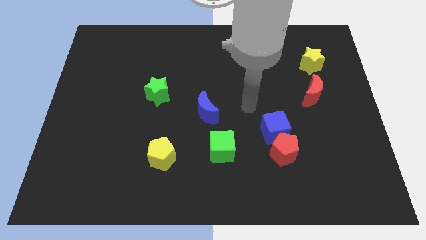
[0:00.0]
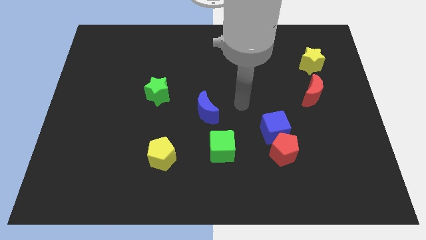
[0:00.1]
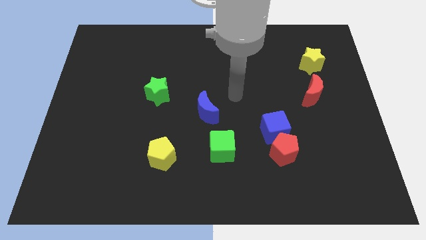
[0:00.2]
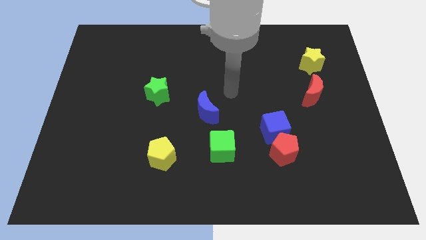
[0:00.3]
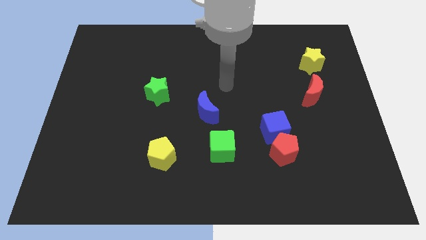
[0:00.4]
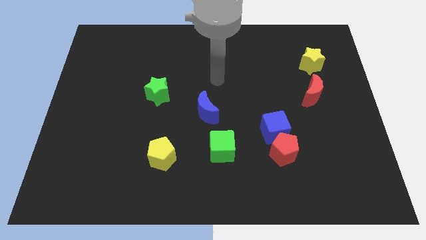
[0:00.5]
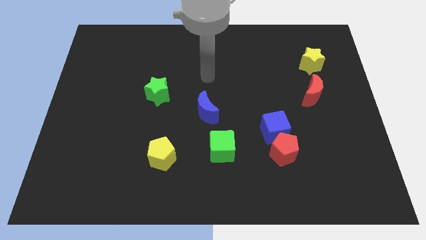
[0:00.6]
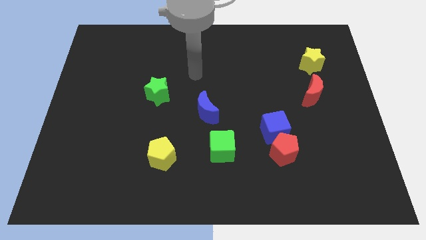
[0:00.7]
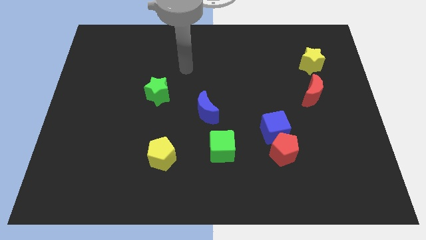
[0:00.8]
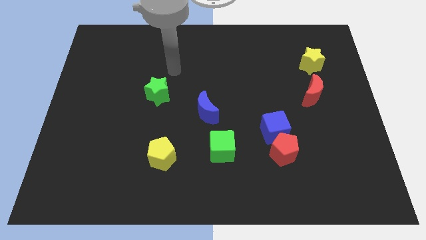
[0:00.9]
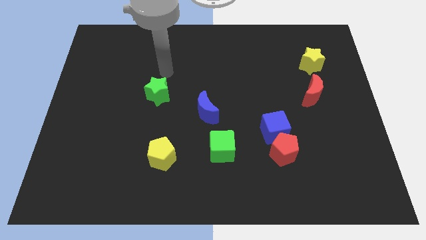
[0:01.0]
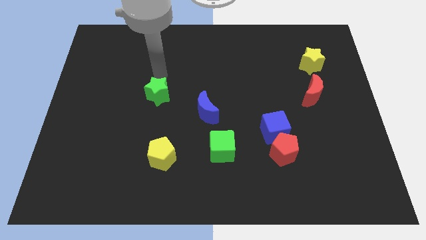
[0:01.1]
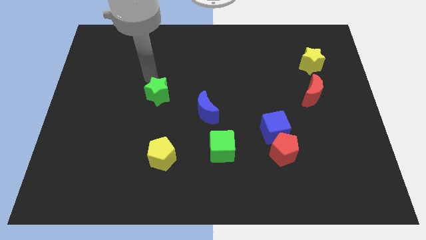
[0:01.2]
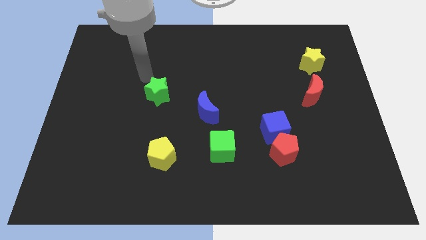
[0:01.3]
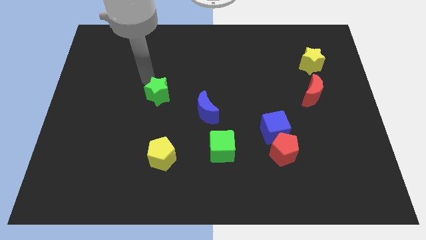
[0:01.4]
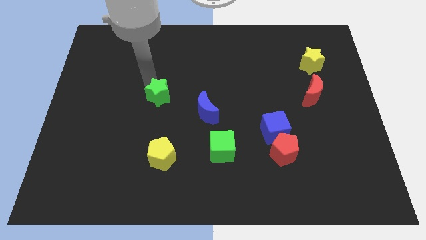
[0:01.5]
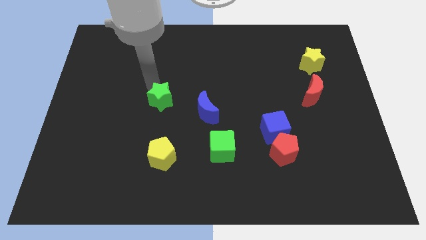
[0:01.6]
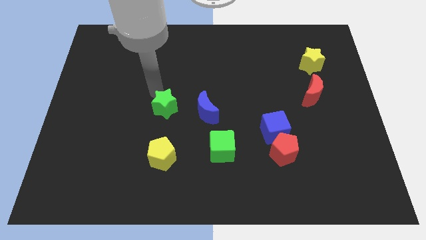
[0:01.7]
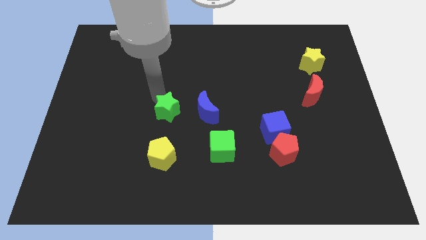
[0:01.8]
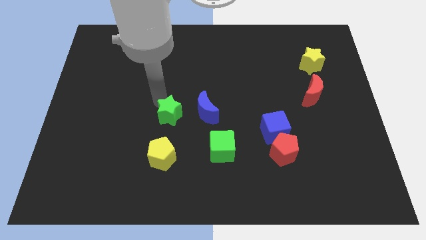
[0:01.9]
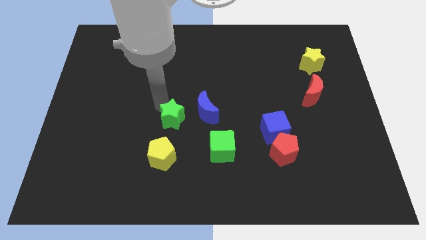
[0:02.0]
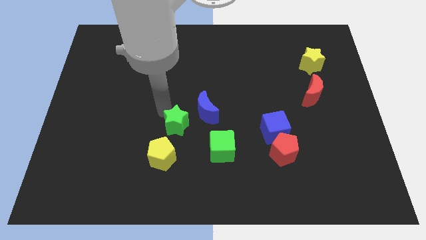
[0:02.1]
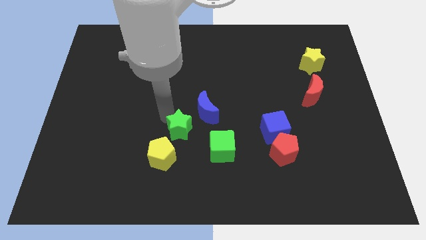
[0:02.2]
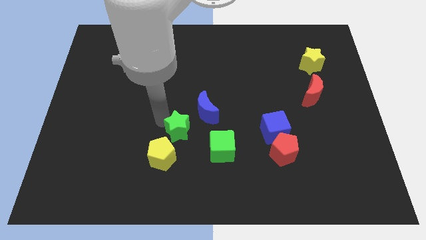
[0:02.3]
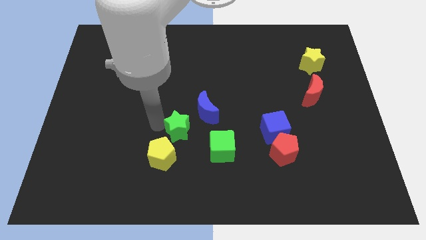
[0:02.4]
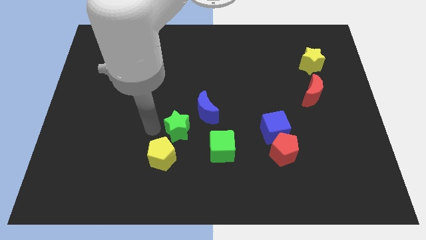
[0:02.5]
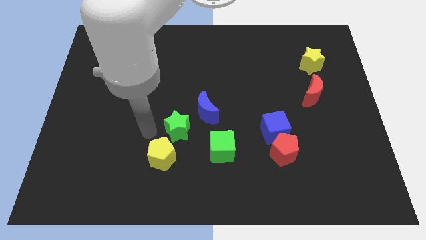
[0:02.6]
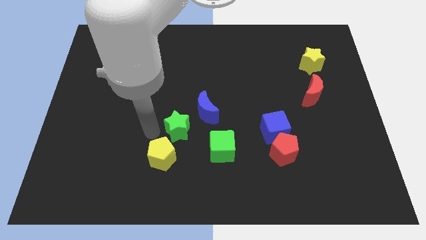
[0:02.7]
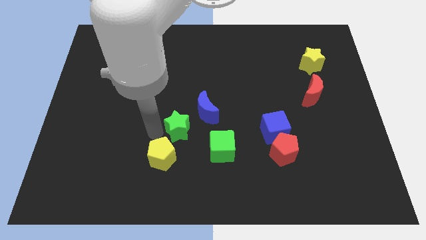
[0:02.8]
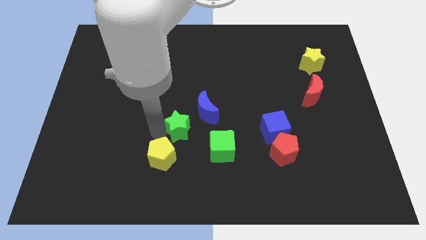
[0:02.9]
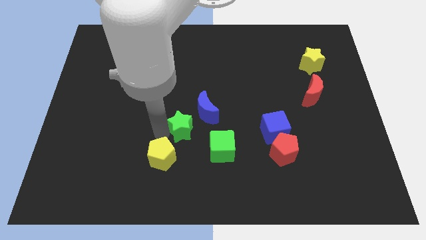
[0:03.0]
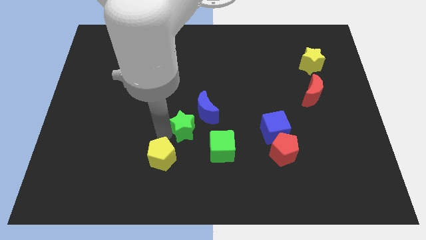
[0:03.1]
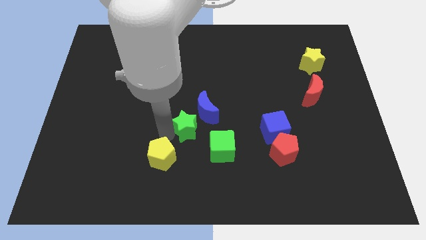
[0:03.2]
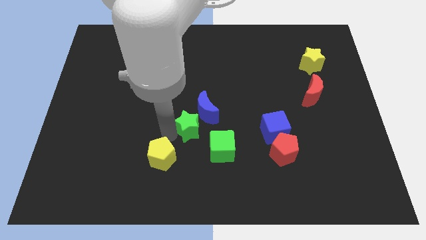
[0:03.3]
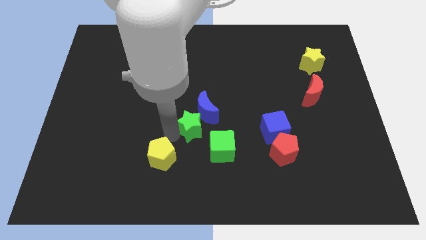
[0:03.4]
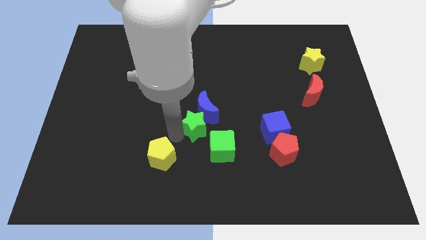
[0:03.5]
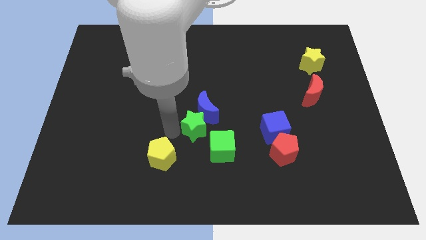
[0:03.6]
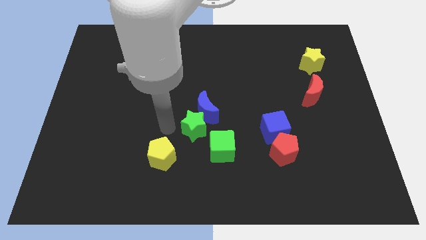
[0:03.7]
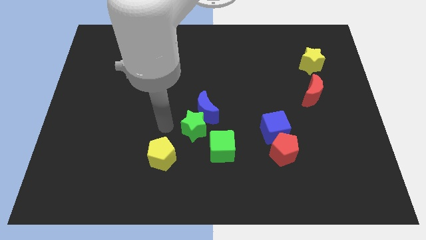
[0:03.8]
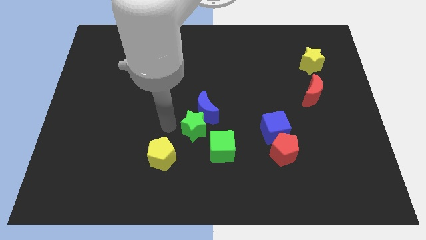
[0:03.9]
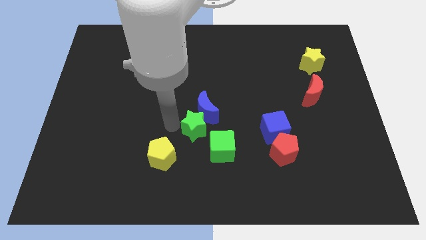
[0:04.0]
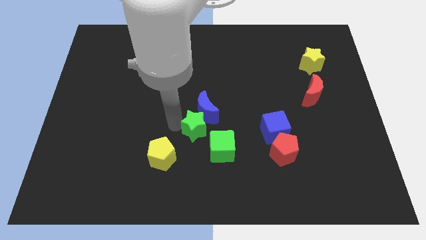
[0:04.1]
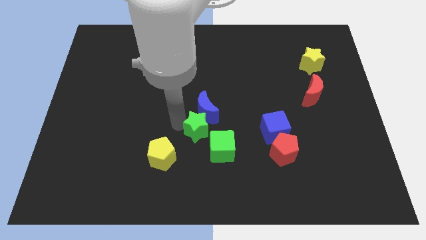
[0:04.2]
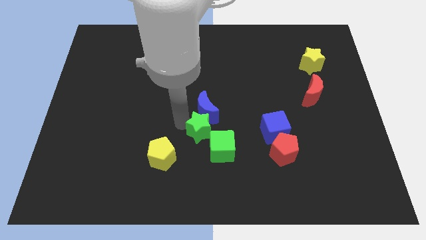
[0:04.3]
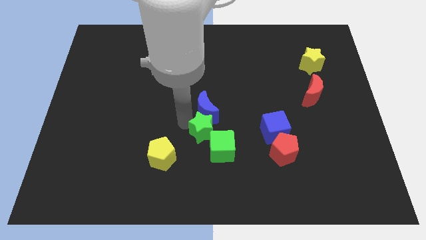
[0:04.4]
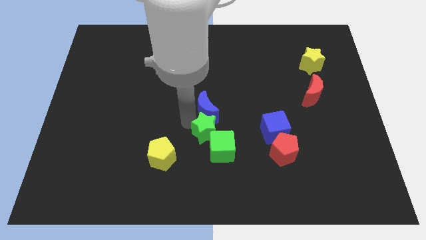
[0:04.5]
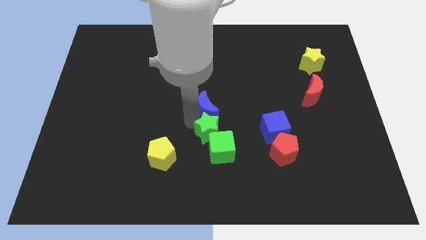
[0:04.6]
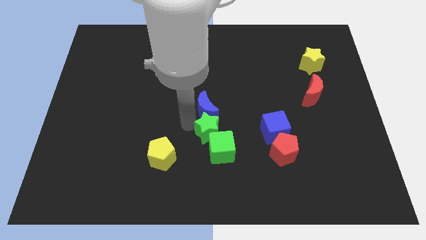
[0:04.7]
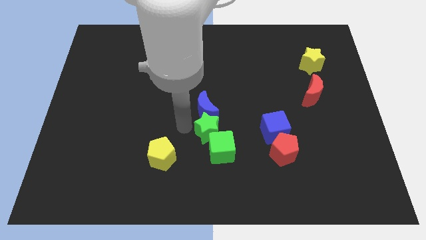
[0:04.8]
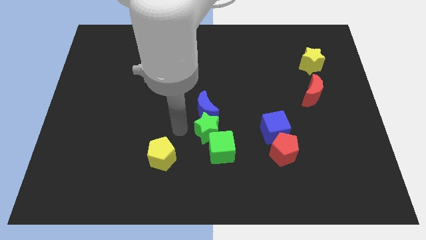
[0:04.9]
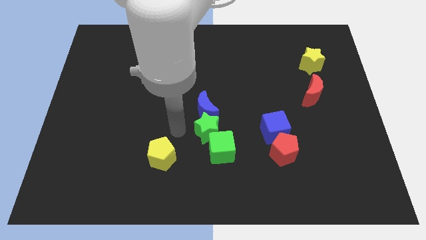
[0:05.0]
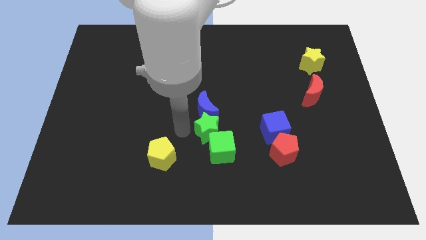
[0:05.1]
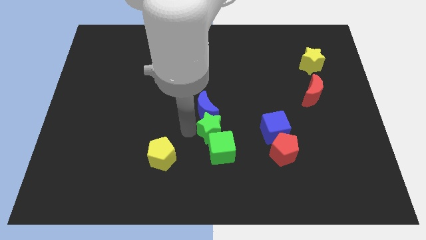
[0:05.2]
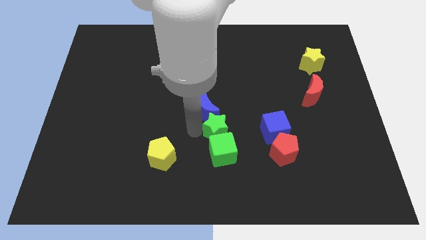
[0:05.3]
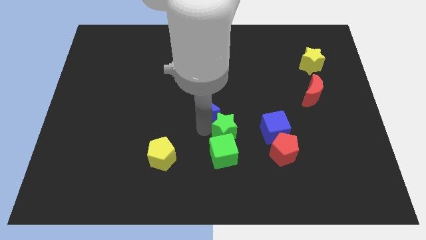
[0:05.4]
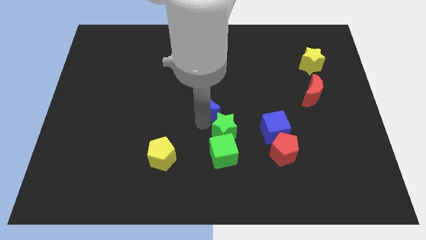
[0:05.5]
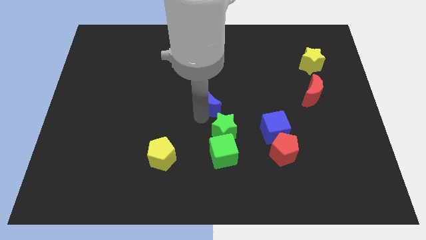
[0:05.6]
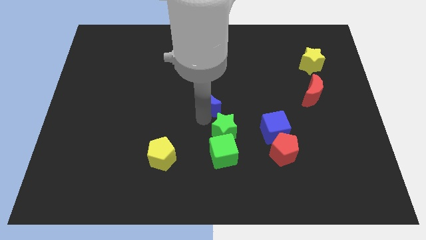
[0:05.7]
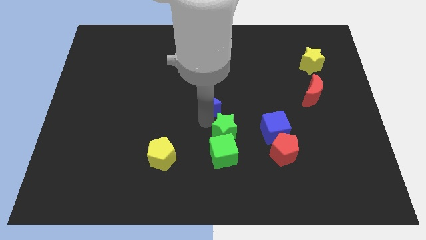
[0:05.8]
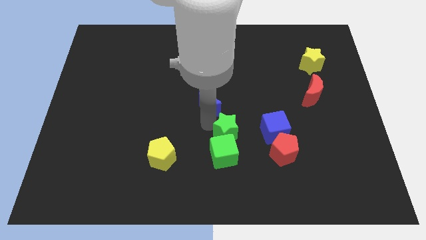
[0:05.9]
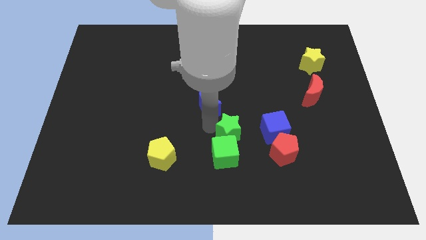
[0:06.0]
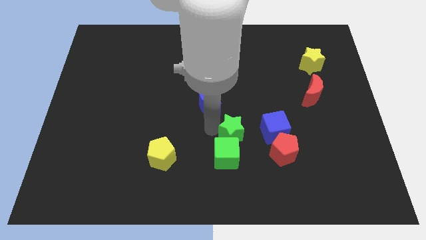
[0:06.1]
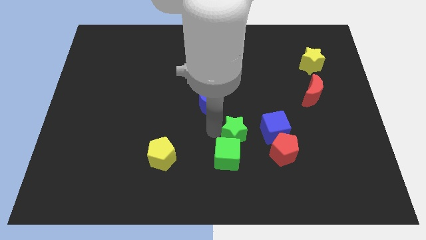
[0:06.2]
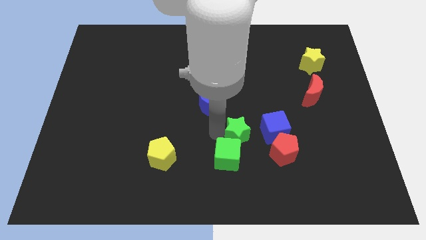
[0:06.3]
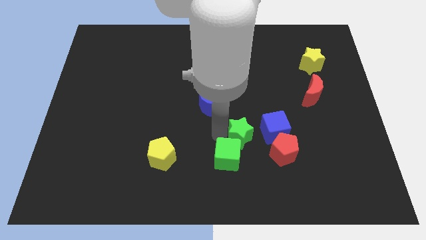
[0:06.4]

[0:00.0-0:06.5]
put the green star diagonally down and to the left of the blue cube

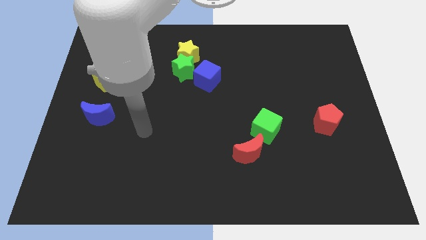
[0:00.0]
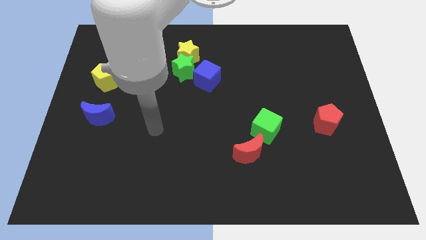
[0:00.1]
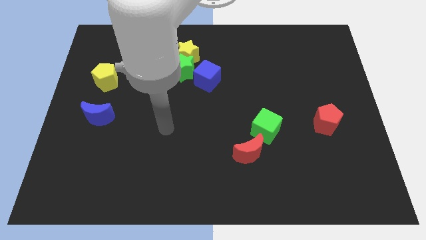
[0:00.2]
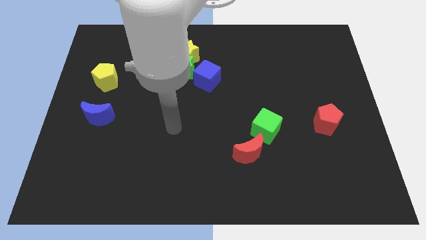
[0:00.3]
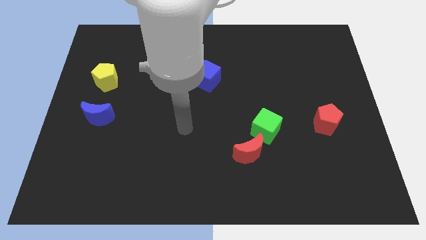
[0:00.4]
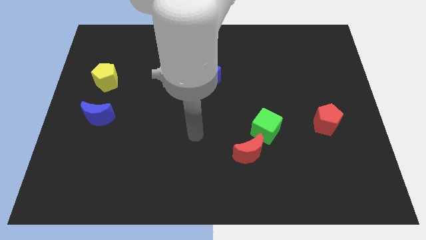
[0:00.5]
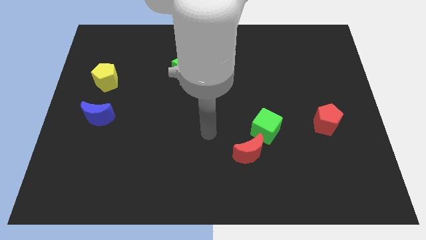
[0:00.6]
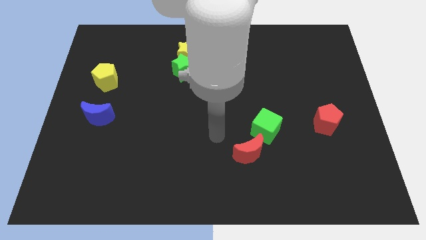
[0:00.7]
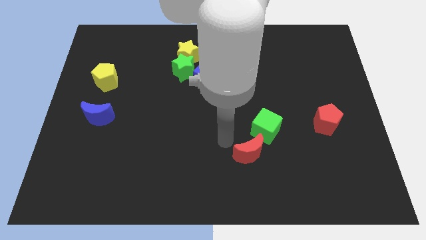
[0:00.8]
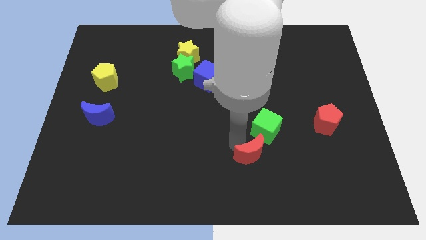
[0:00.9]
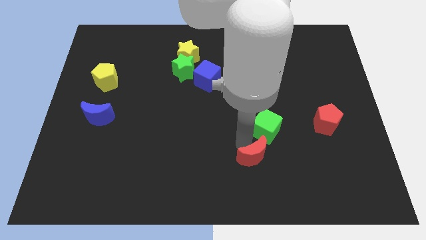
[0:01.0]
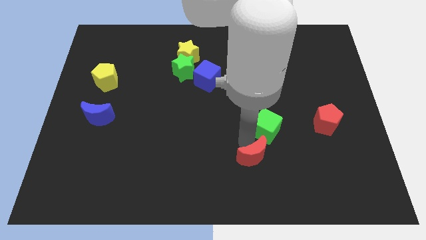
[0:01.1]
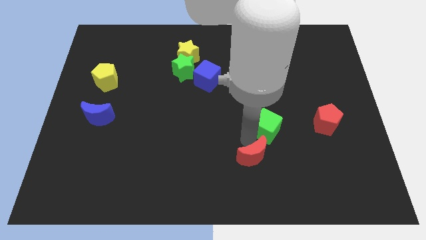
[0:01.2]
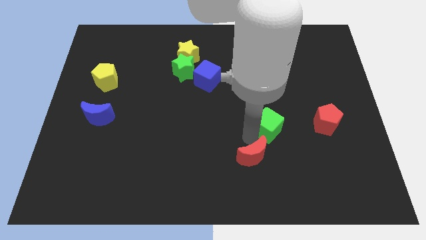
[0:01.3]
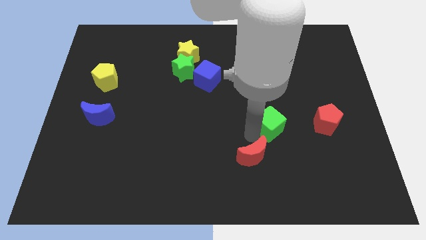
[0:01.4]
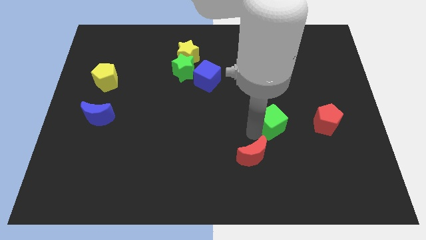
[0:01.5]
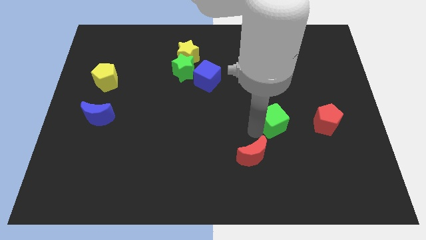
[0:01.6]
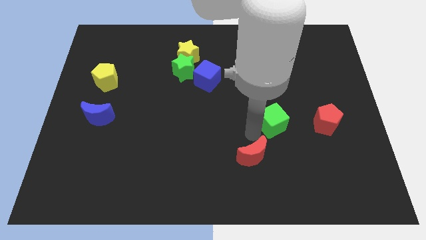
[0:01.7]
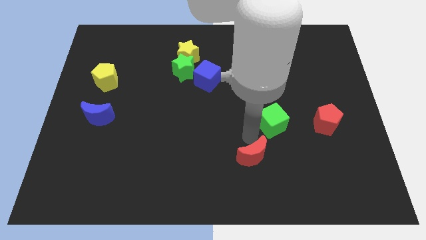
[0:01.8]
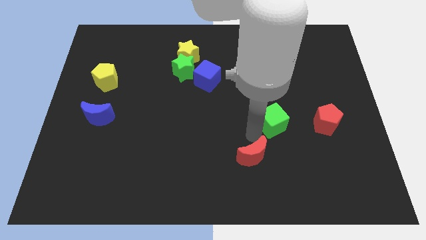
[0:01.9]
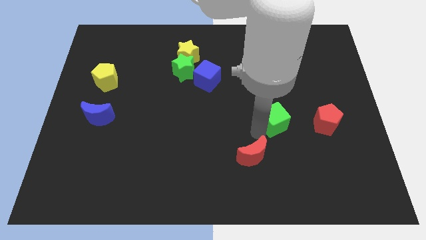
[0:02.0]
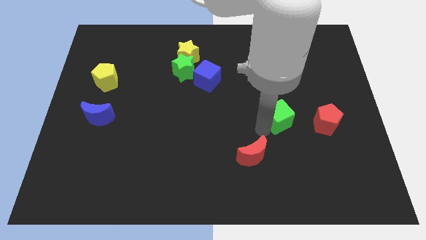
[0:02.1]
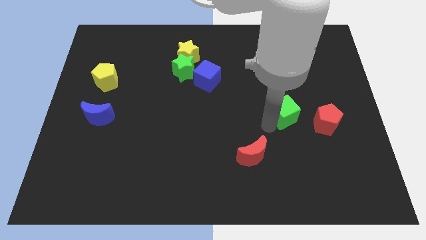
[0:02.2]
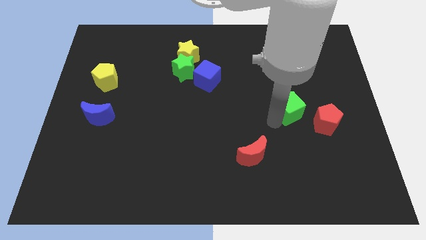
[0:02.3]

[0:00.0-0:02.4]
push the green cube diagonally up and to the left of the red pentagon
